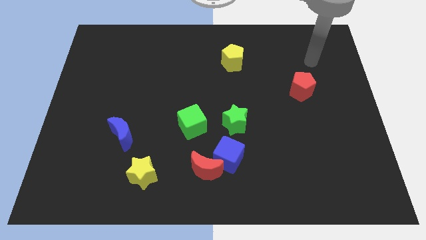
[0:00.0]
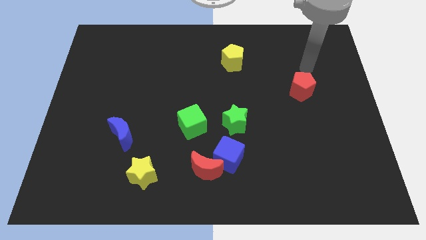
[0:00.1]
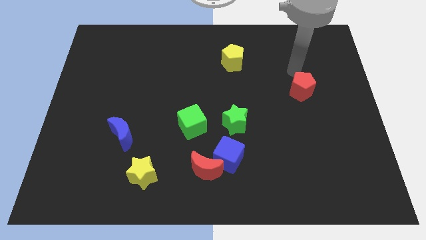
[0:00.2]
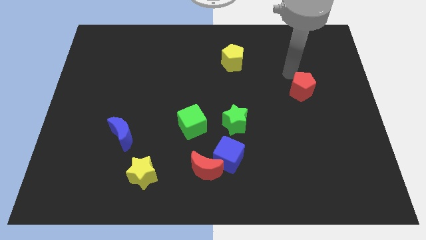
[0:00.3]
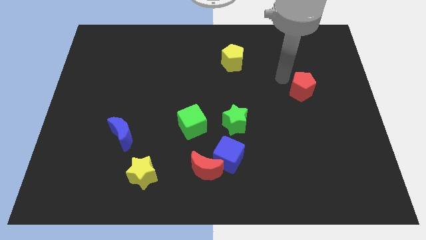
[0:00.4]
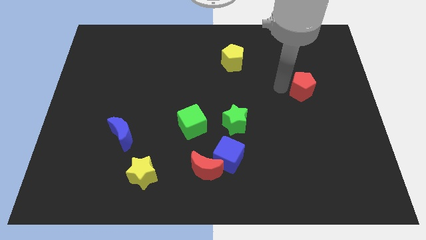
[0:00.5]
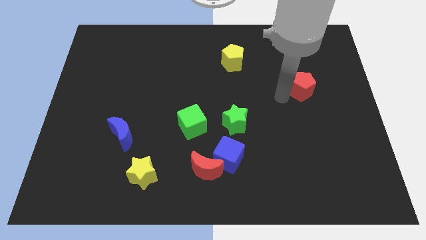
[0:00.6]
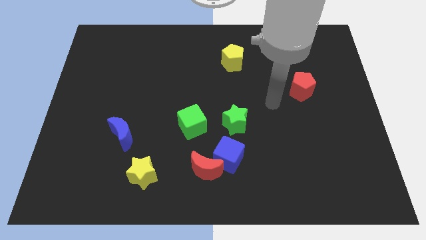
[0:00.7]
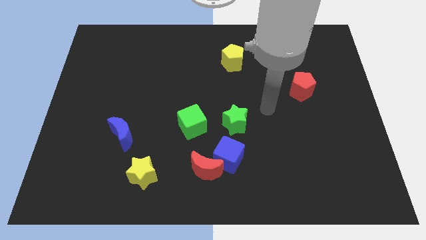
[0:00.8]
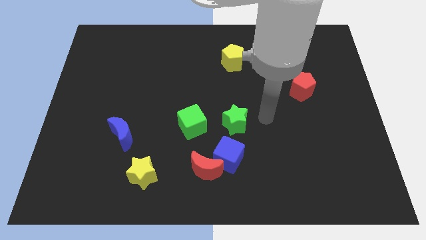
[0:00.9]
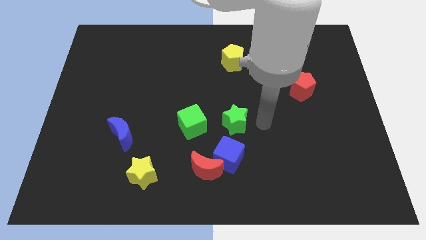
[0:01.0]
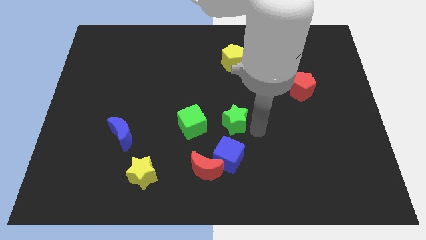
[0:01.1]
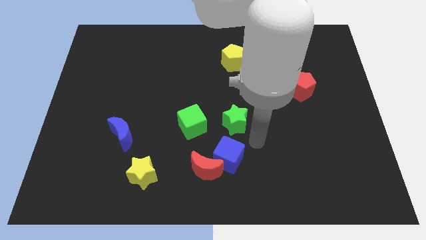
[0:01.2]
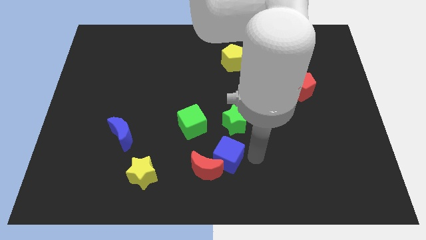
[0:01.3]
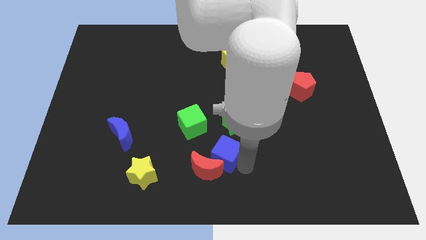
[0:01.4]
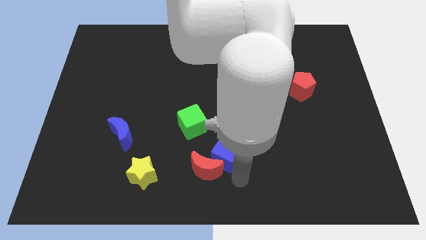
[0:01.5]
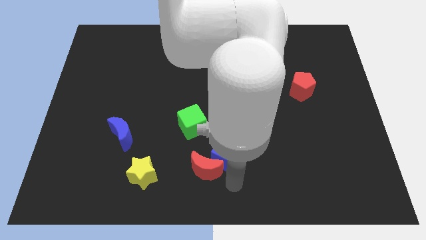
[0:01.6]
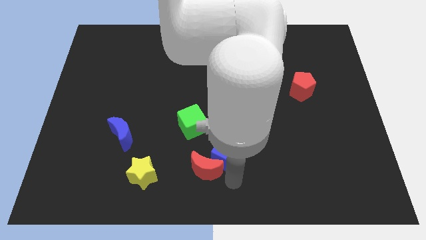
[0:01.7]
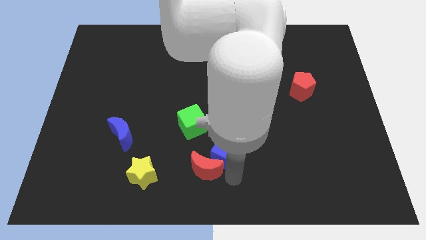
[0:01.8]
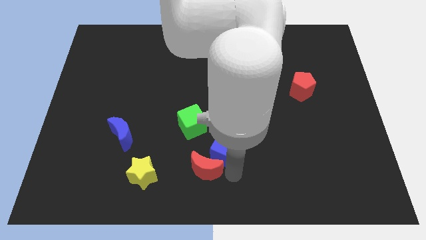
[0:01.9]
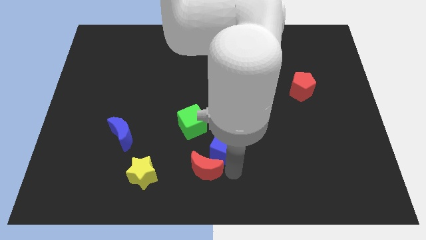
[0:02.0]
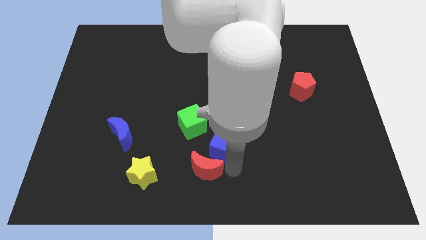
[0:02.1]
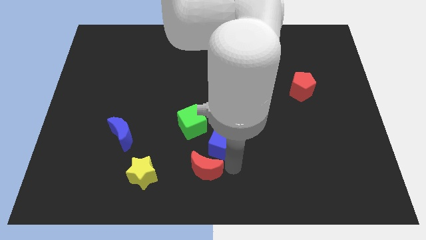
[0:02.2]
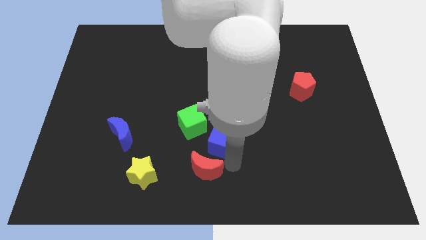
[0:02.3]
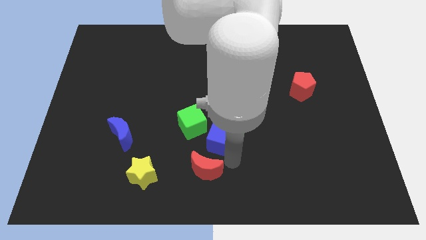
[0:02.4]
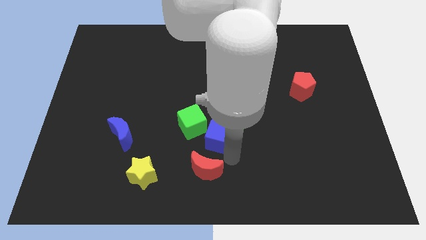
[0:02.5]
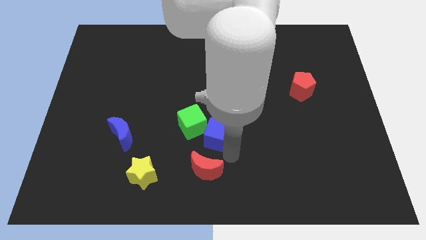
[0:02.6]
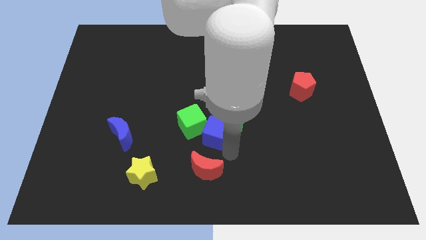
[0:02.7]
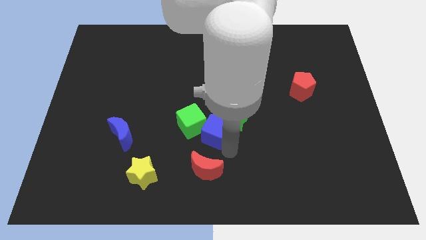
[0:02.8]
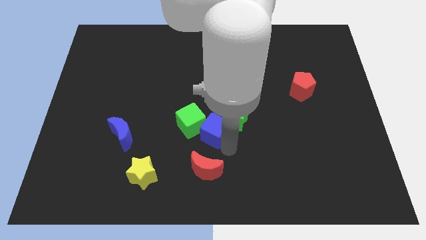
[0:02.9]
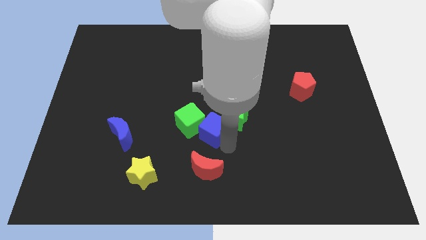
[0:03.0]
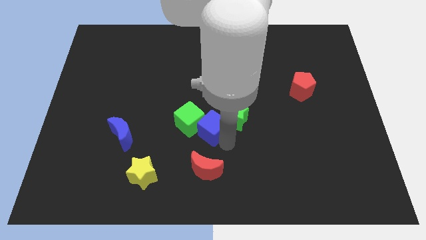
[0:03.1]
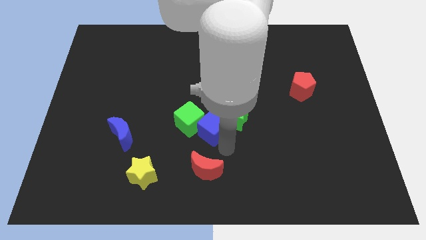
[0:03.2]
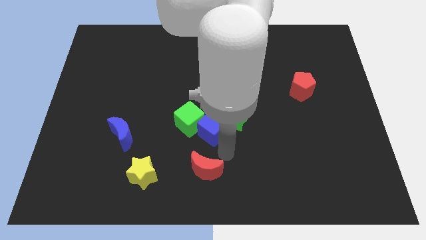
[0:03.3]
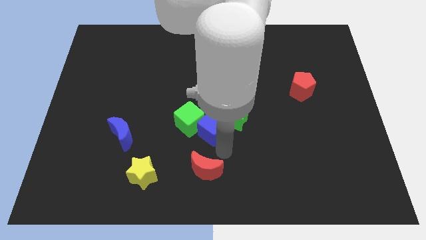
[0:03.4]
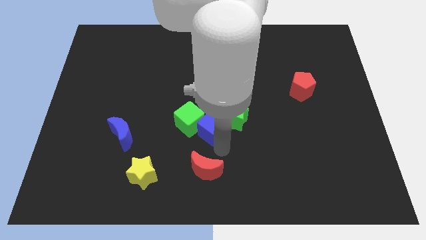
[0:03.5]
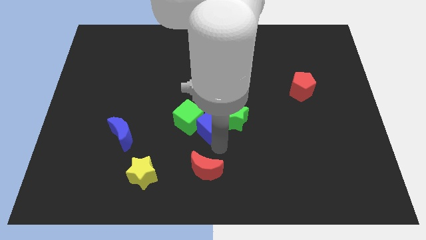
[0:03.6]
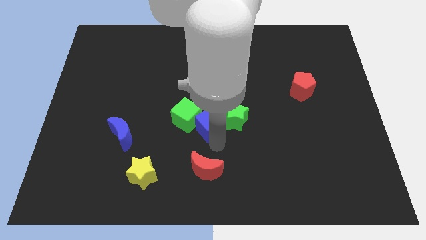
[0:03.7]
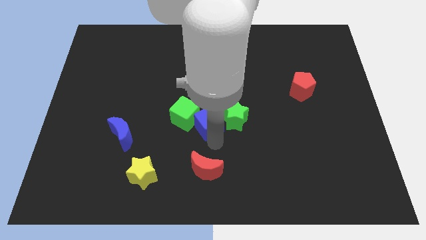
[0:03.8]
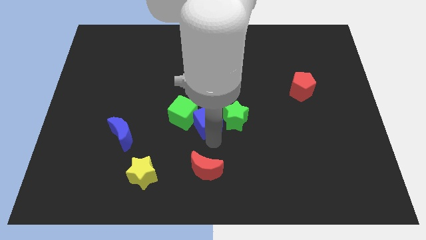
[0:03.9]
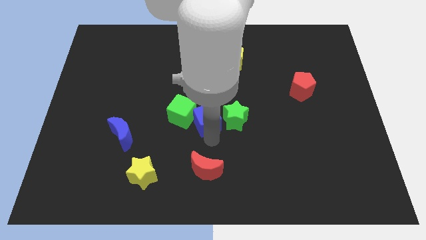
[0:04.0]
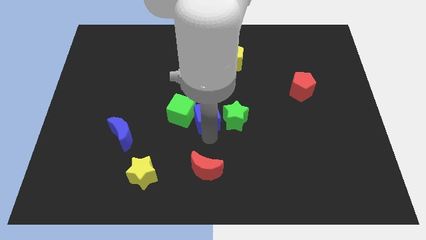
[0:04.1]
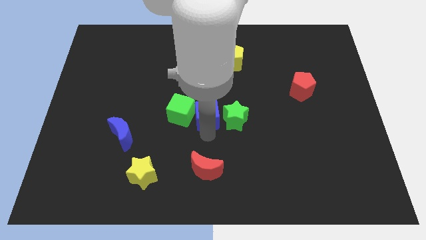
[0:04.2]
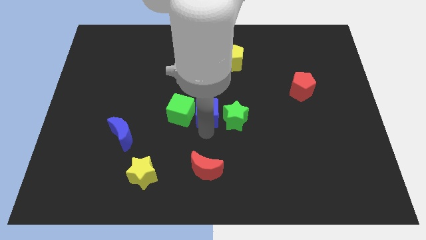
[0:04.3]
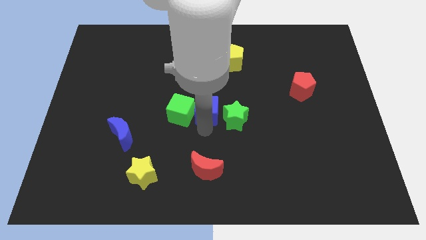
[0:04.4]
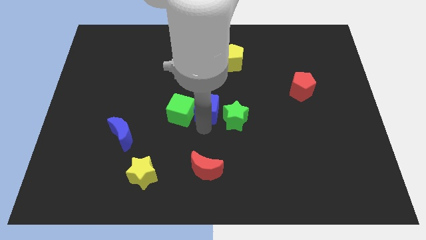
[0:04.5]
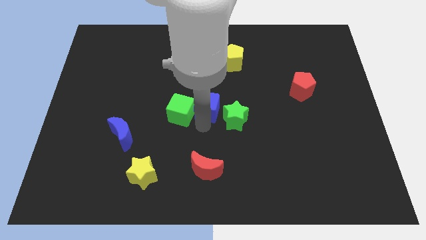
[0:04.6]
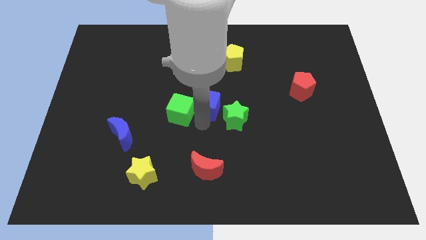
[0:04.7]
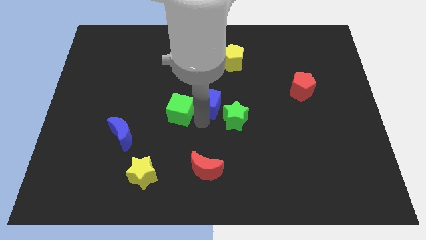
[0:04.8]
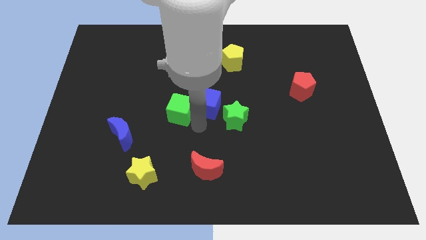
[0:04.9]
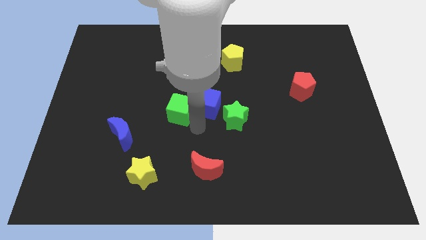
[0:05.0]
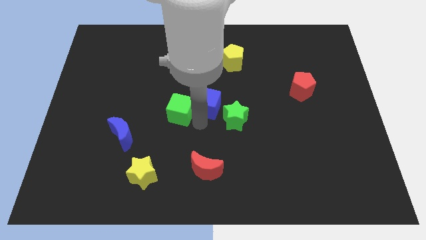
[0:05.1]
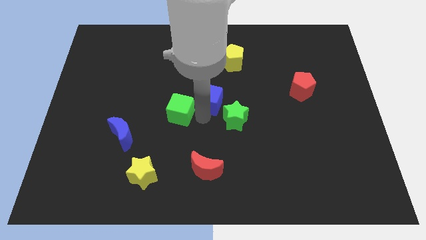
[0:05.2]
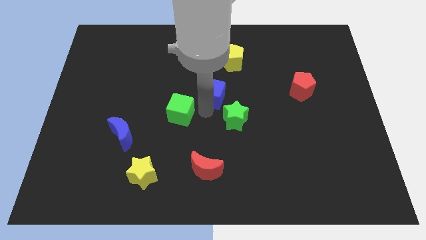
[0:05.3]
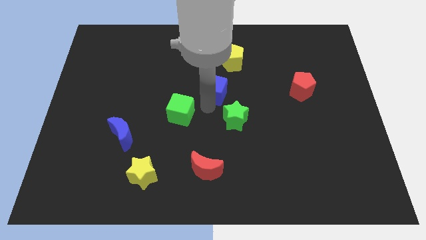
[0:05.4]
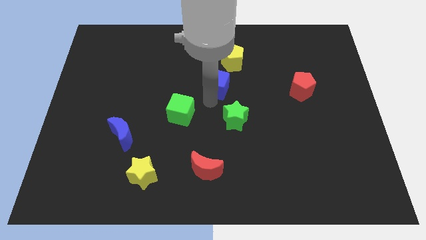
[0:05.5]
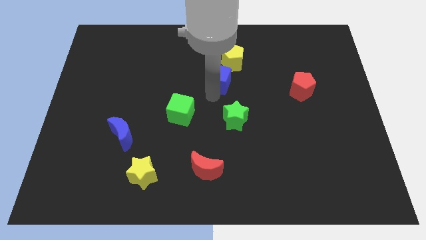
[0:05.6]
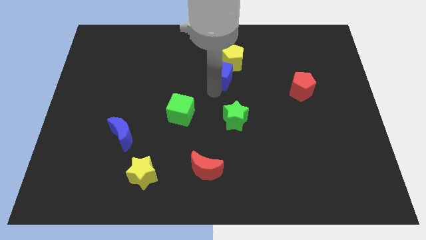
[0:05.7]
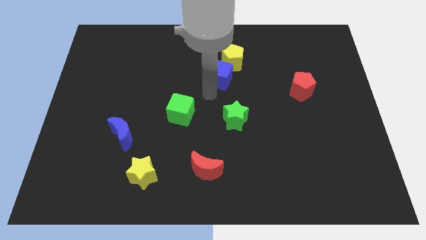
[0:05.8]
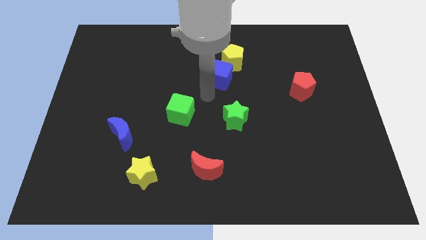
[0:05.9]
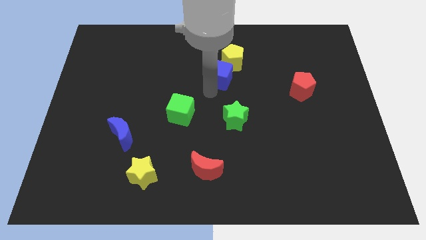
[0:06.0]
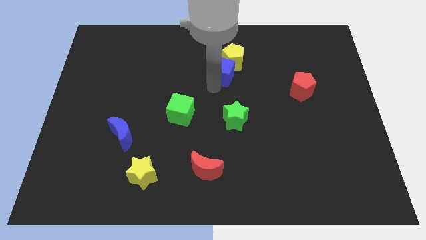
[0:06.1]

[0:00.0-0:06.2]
slide the blue cube next to the yellow pentagon

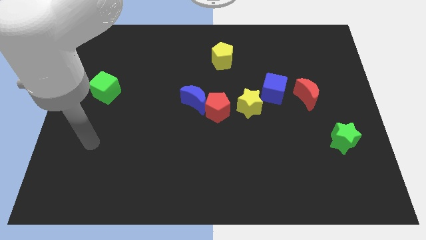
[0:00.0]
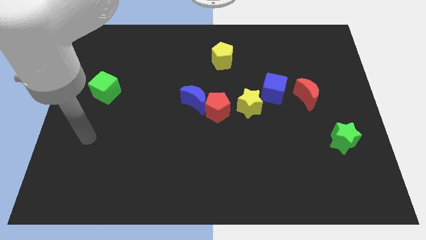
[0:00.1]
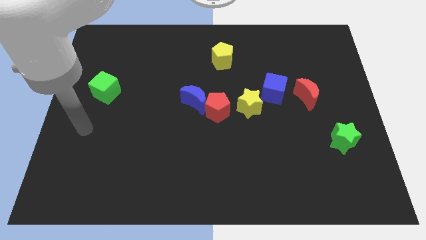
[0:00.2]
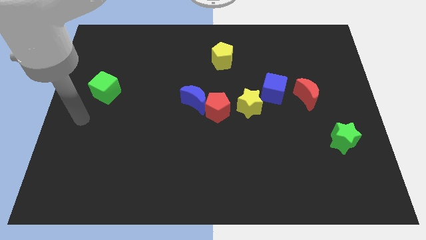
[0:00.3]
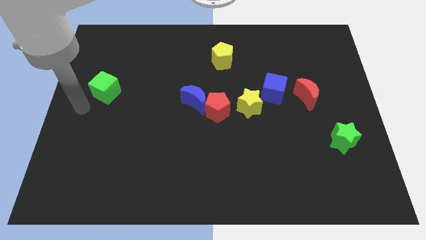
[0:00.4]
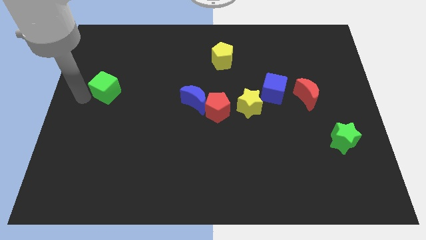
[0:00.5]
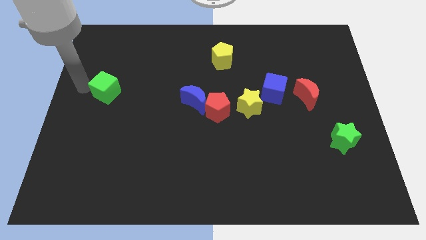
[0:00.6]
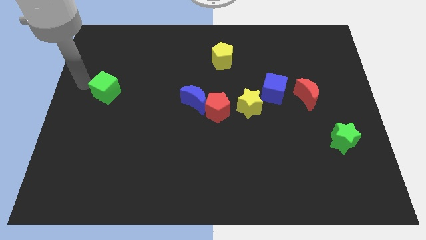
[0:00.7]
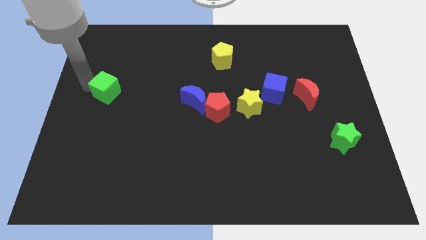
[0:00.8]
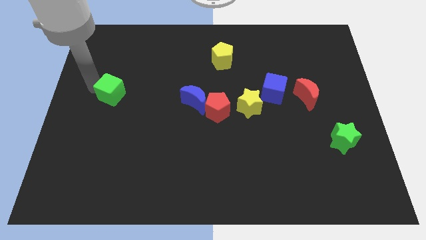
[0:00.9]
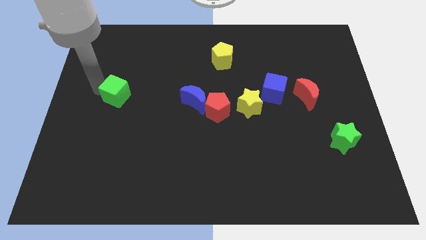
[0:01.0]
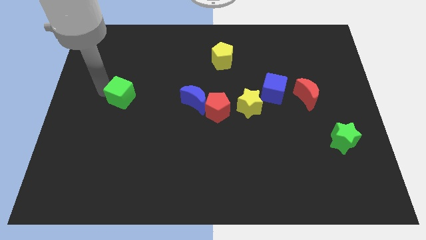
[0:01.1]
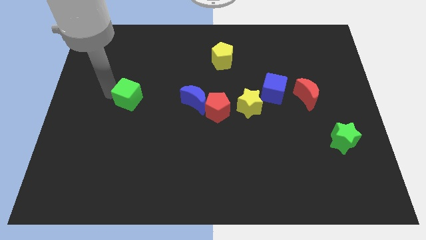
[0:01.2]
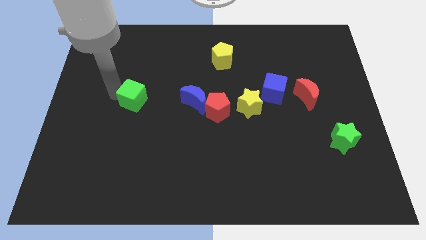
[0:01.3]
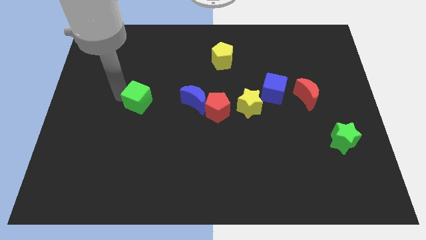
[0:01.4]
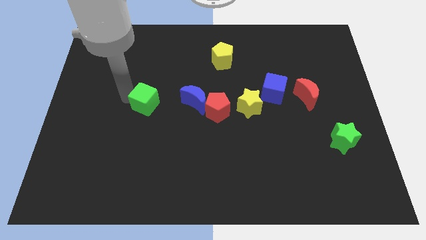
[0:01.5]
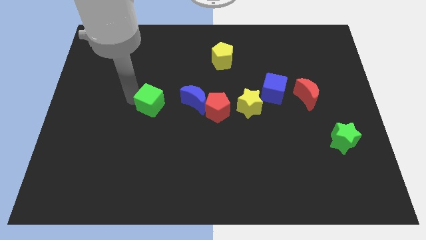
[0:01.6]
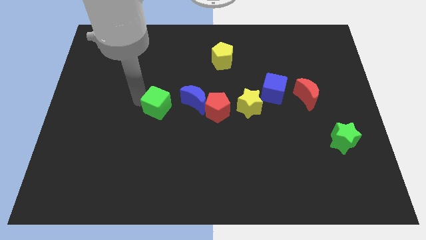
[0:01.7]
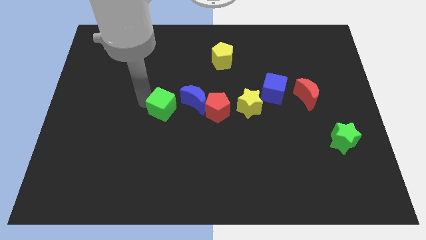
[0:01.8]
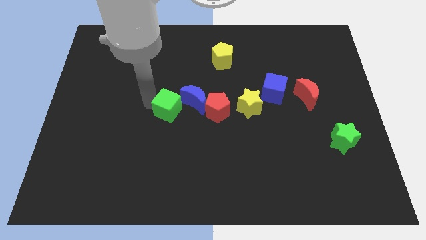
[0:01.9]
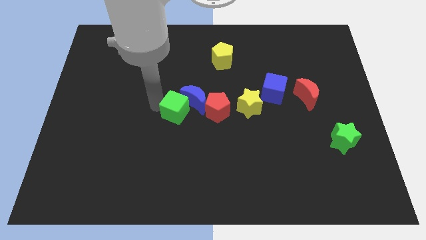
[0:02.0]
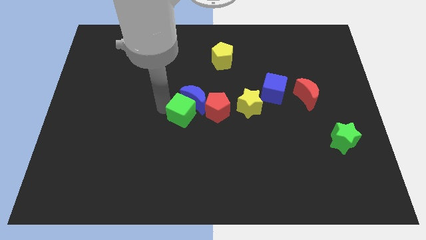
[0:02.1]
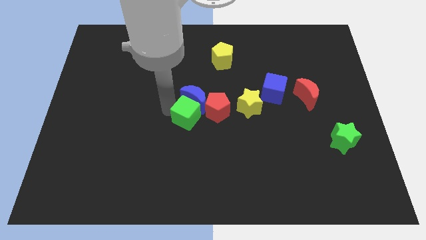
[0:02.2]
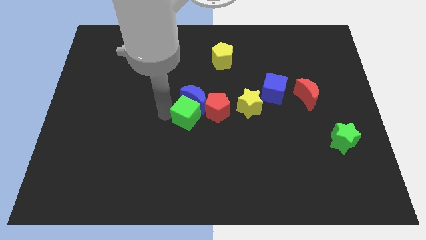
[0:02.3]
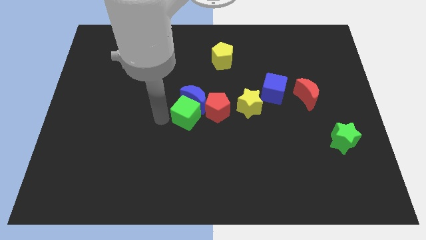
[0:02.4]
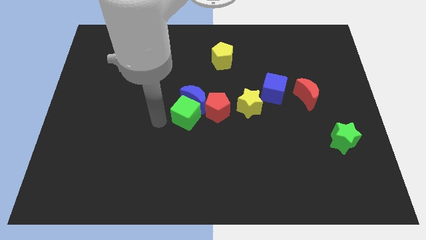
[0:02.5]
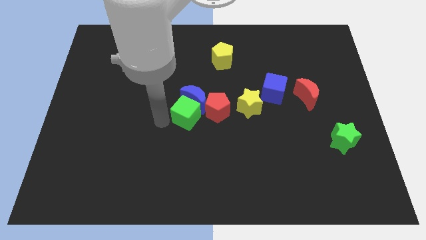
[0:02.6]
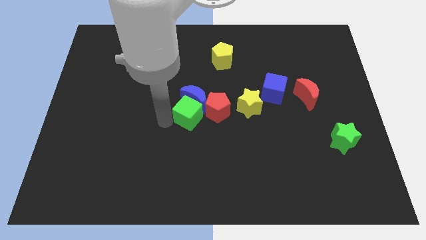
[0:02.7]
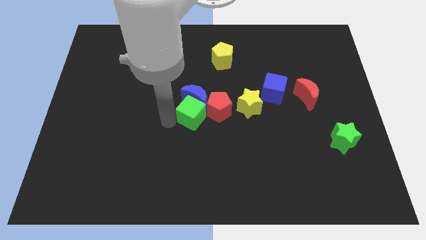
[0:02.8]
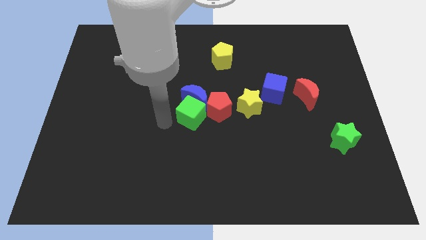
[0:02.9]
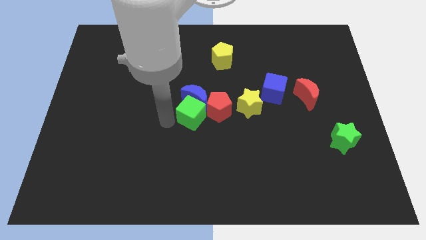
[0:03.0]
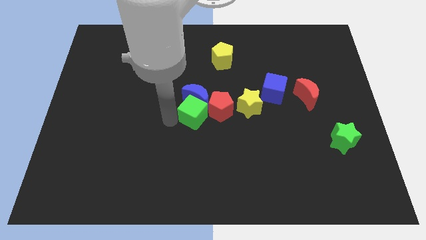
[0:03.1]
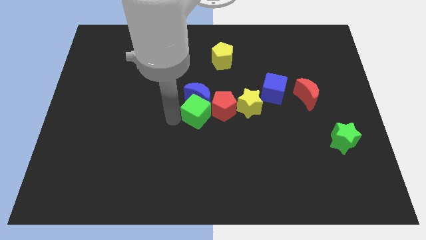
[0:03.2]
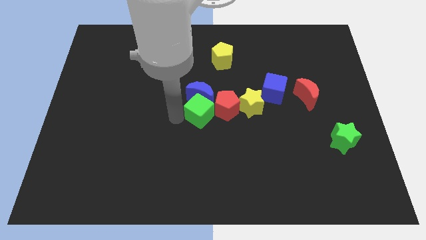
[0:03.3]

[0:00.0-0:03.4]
slide the green cube to the red pentagon
